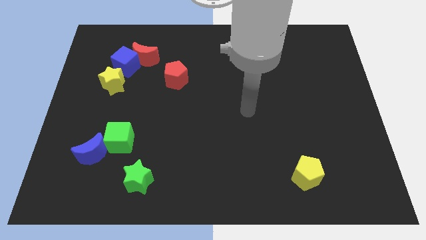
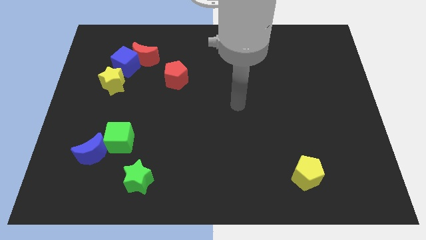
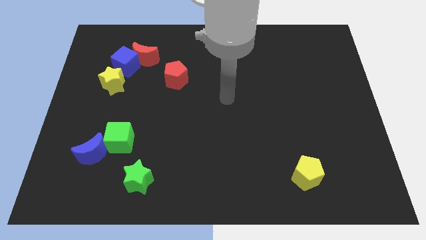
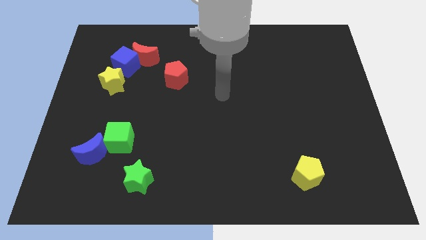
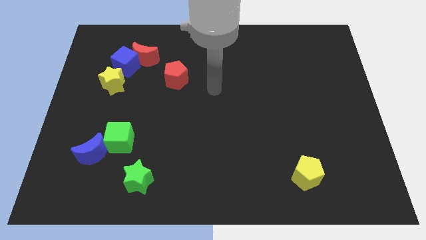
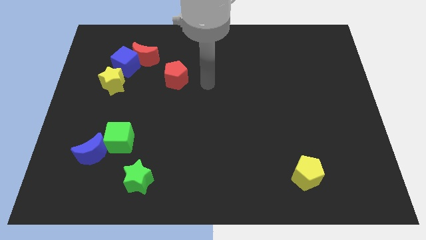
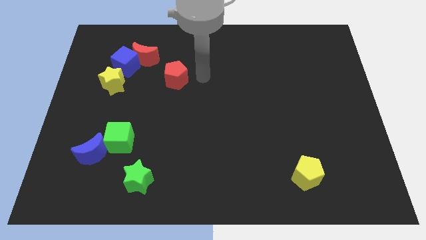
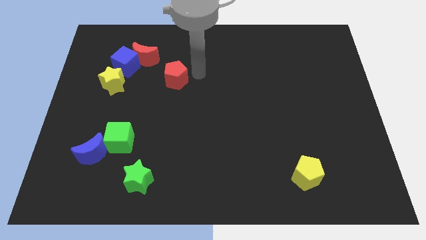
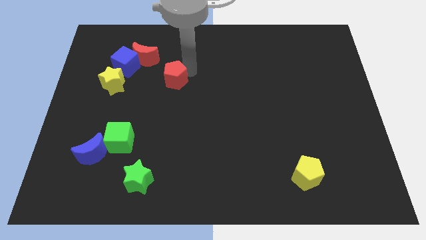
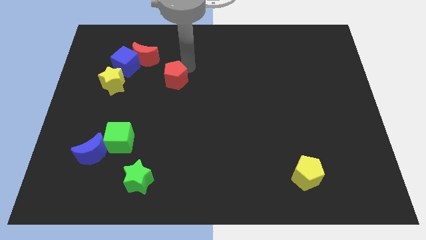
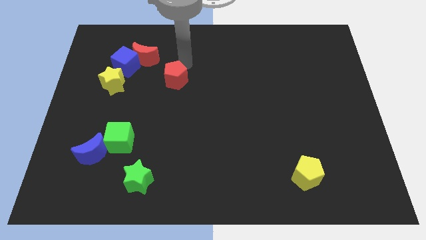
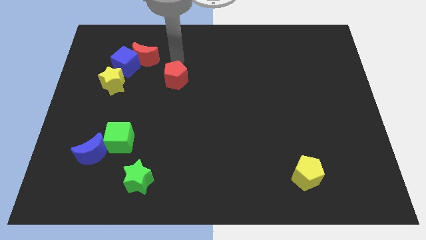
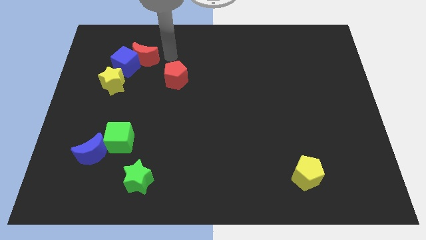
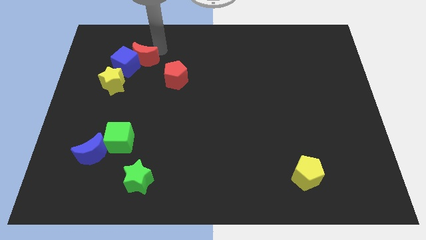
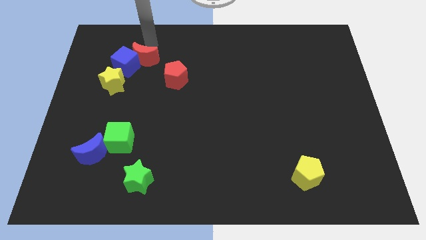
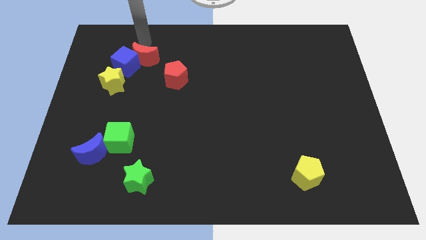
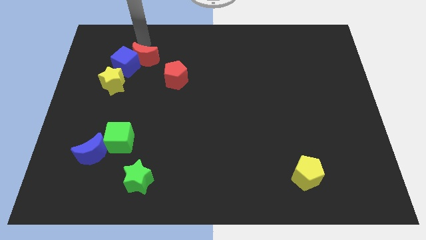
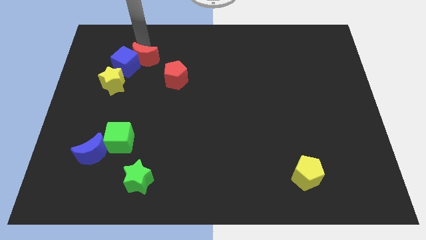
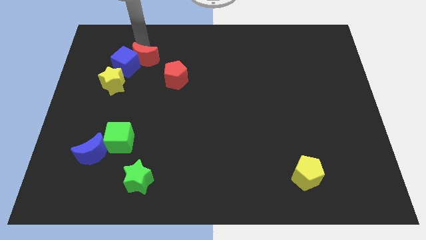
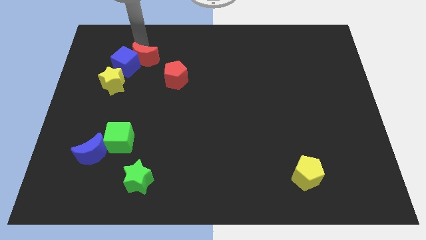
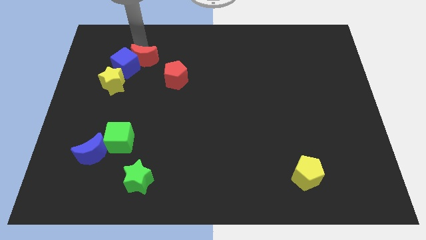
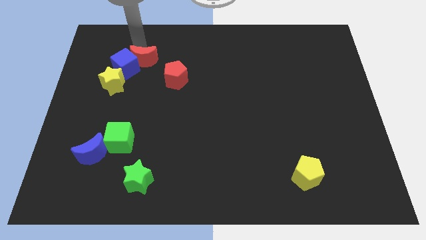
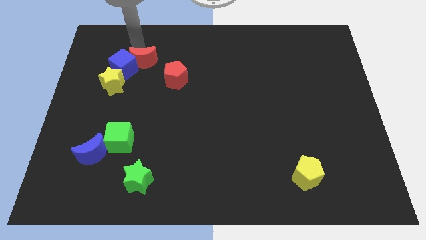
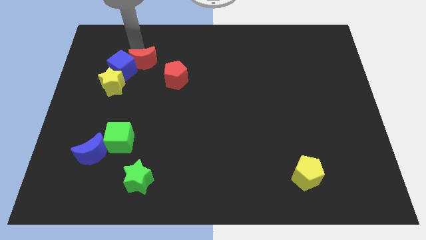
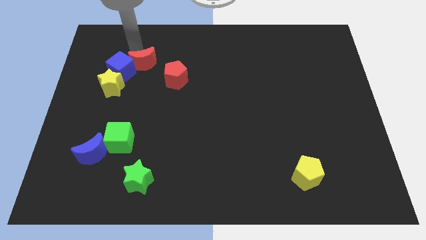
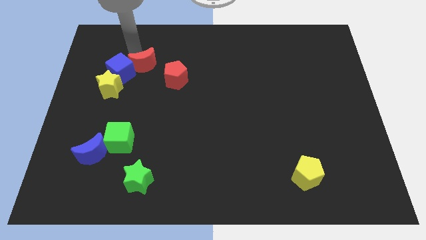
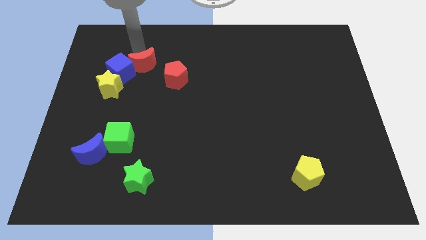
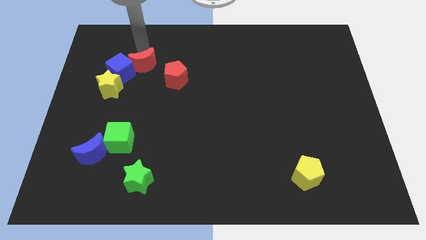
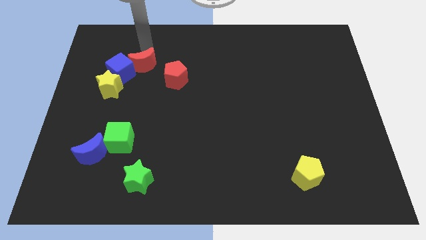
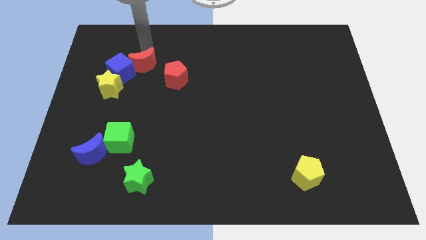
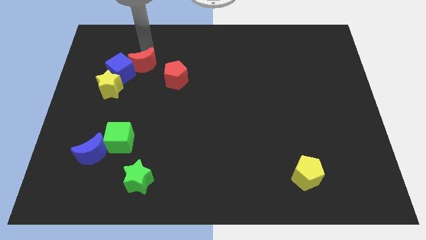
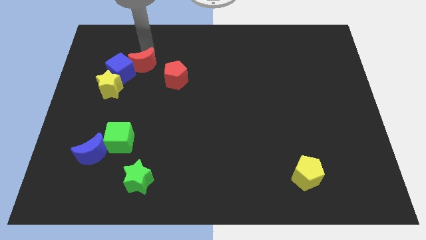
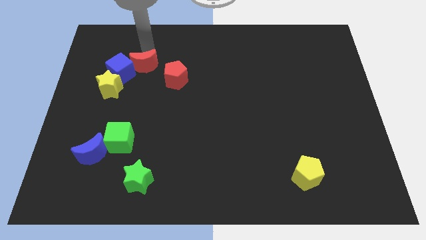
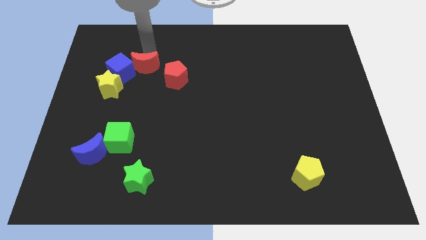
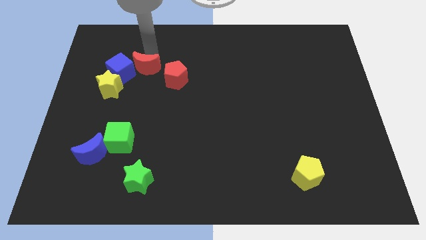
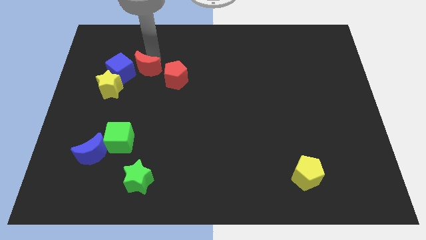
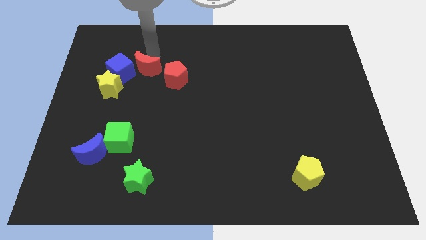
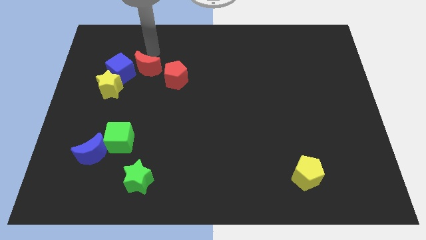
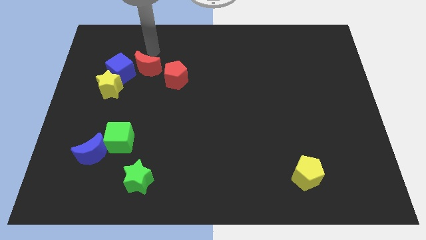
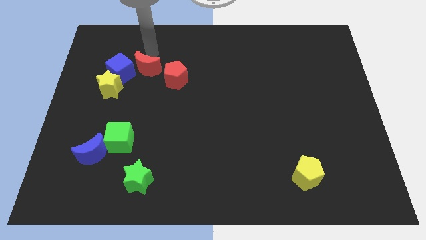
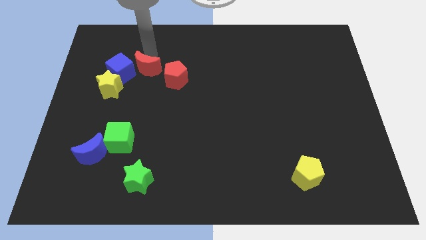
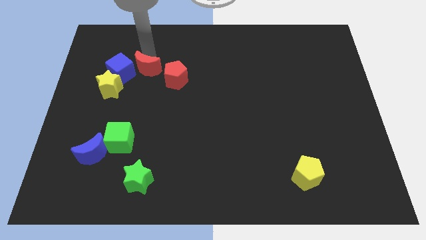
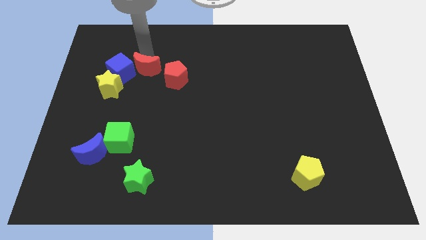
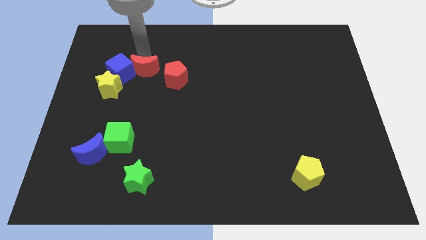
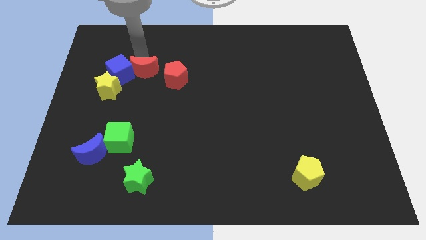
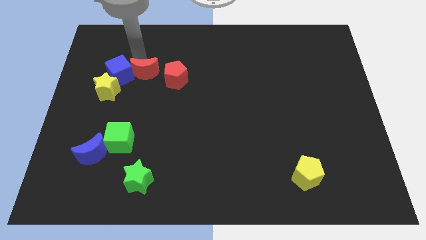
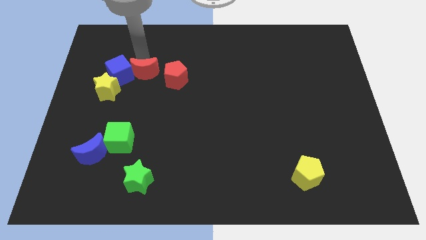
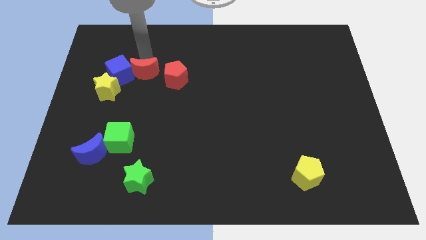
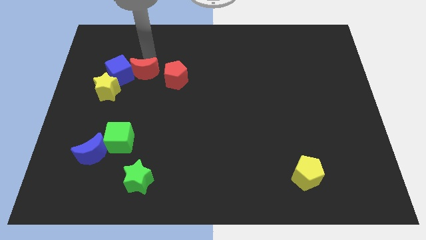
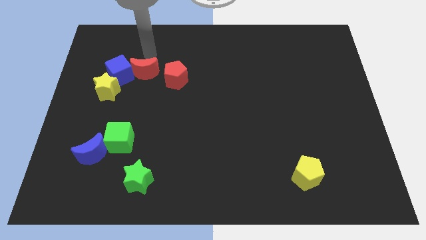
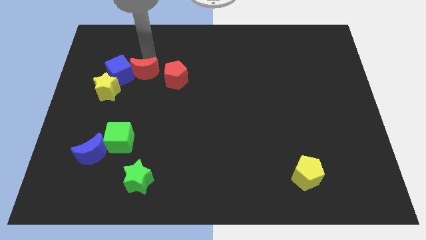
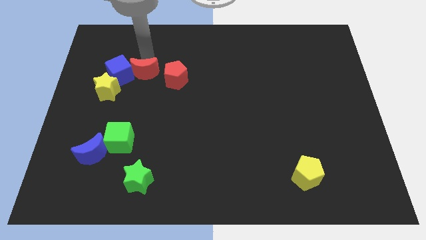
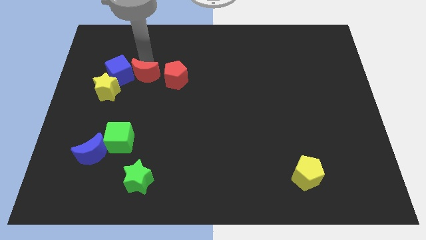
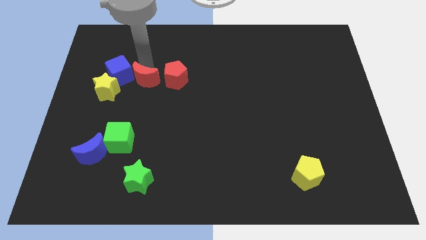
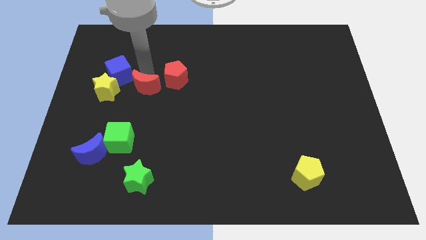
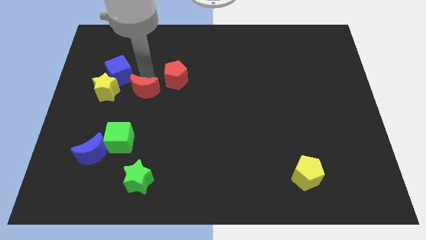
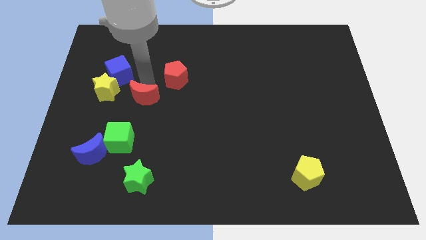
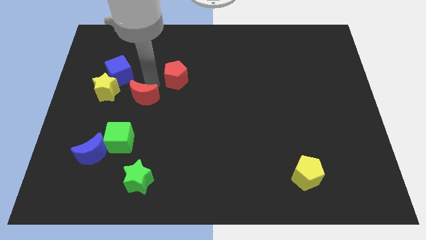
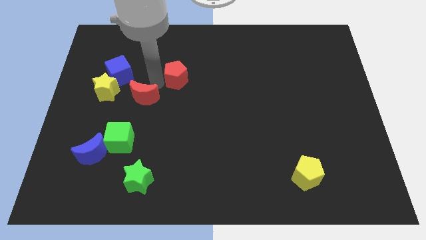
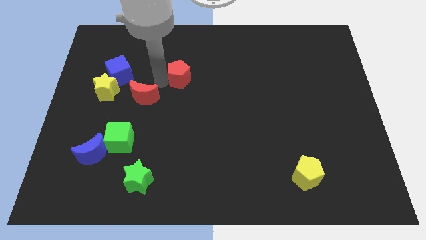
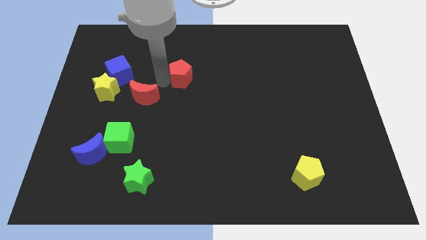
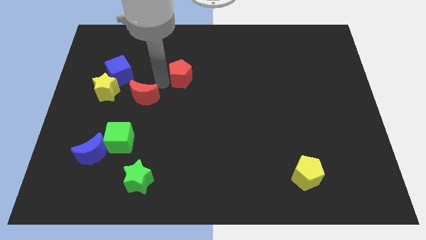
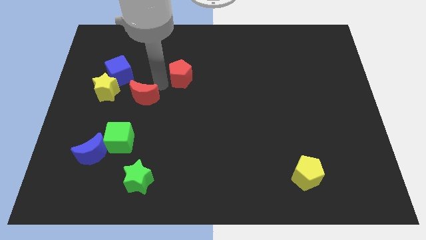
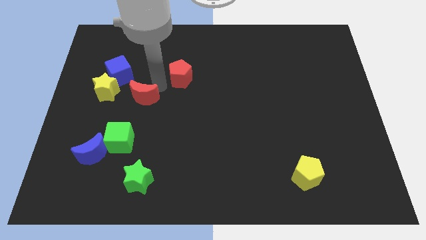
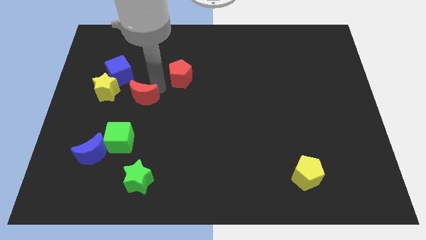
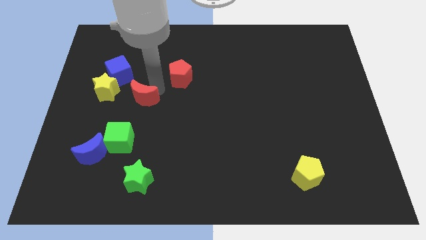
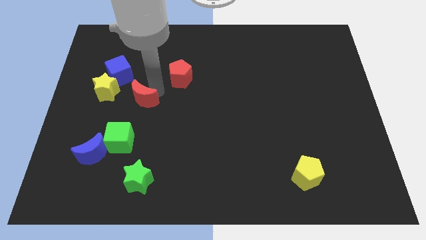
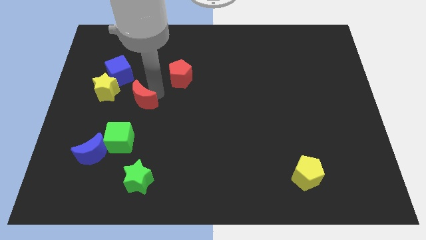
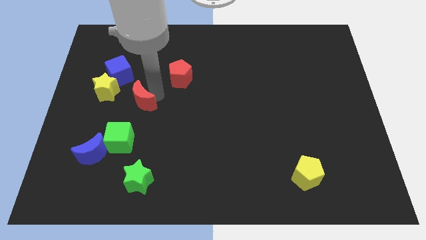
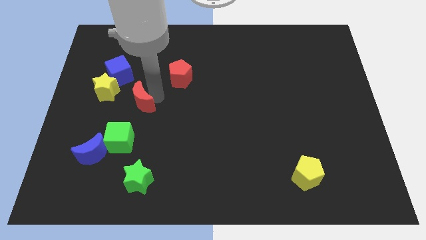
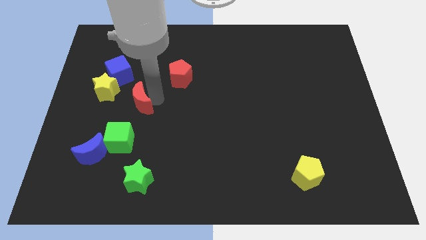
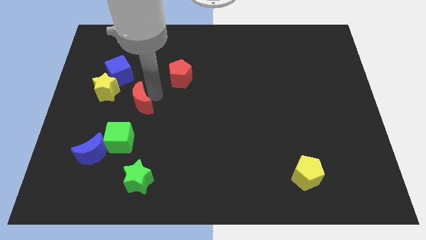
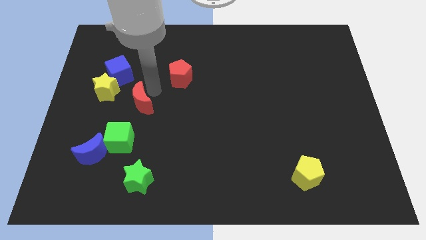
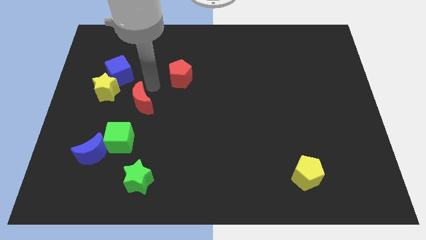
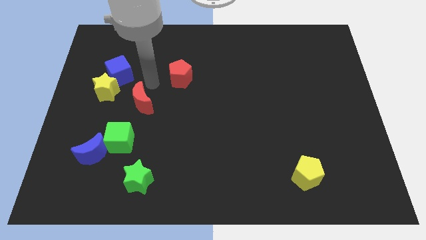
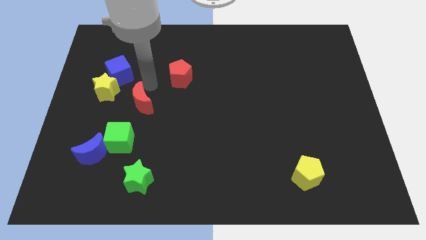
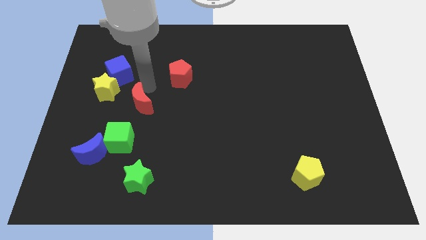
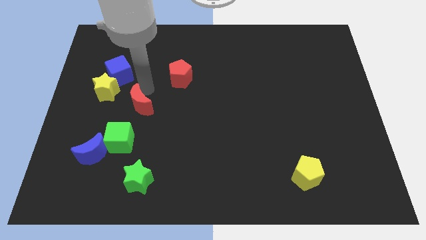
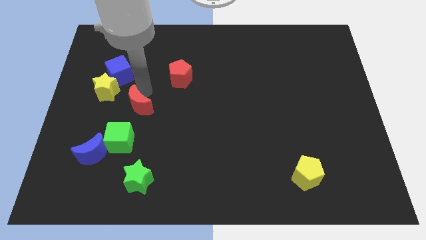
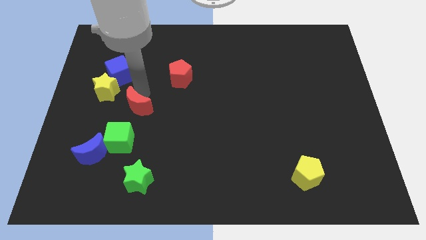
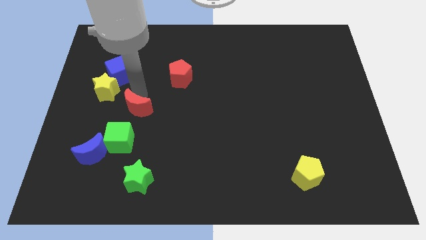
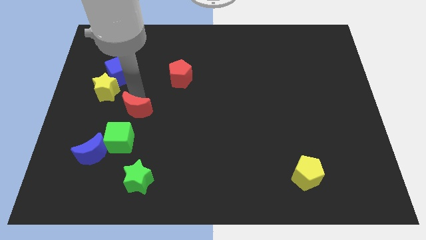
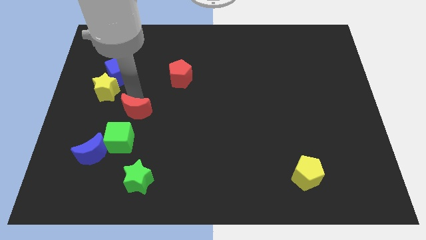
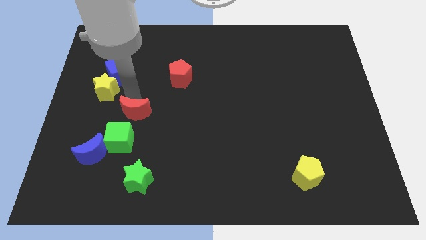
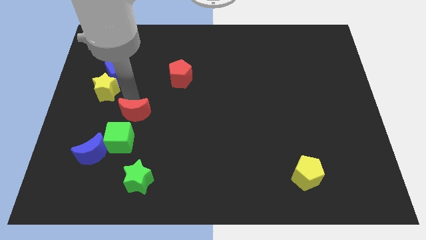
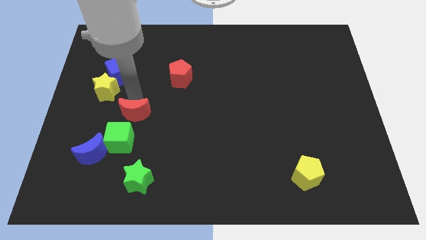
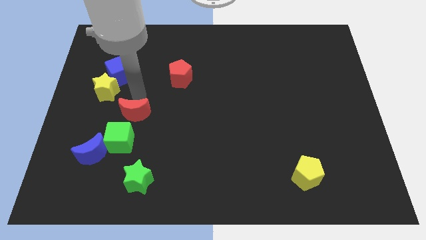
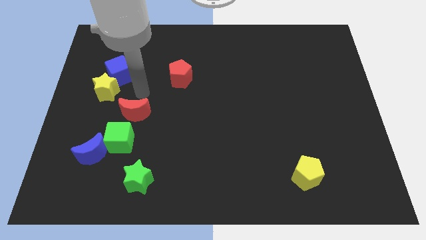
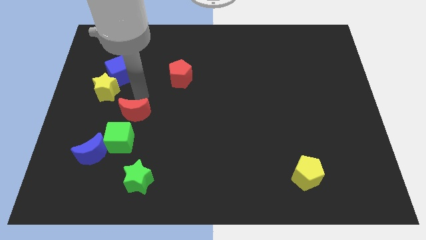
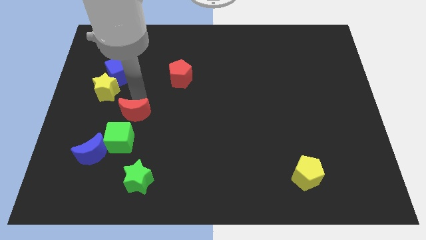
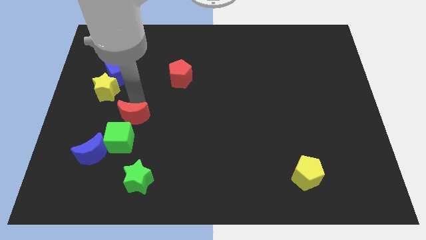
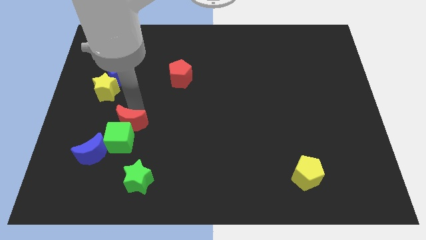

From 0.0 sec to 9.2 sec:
move the red moon close to the green cube
